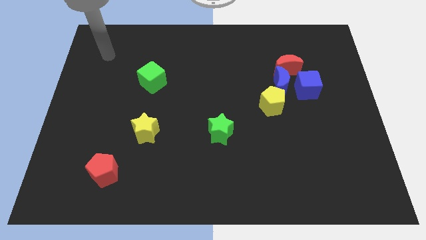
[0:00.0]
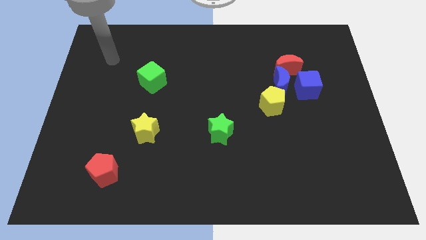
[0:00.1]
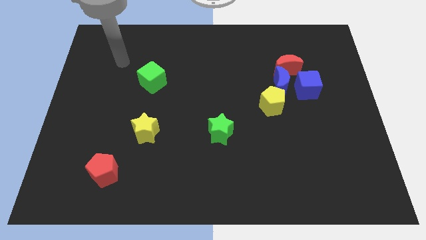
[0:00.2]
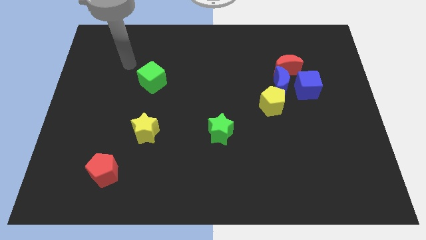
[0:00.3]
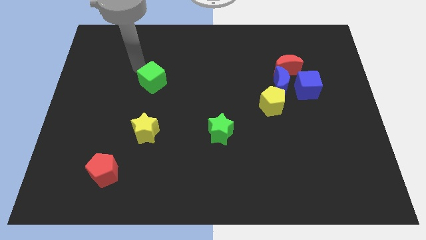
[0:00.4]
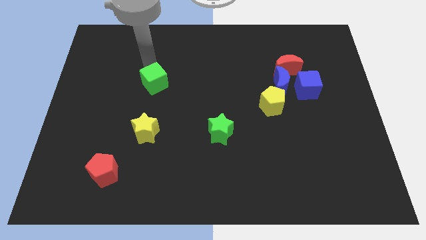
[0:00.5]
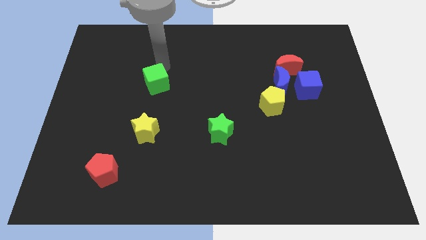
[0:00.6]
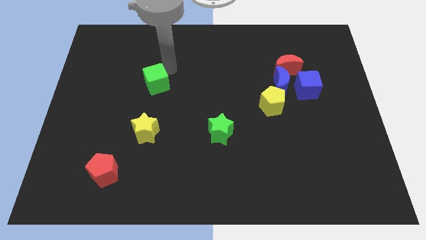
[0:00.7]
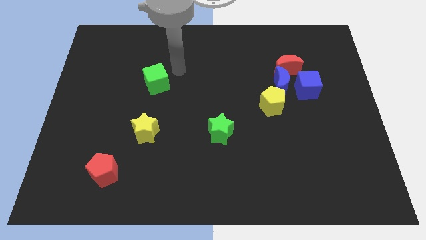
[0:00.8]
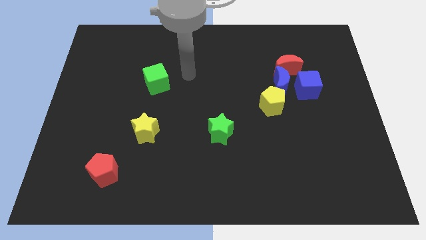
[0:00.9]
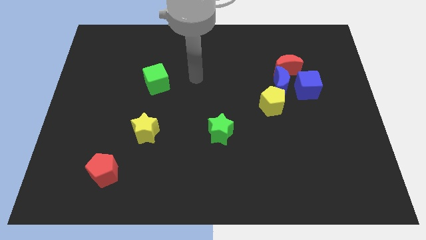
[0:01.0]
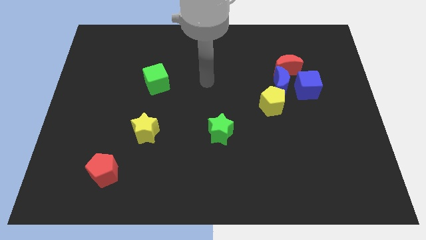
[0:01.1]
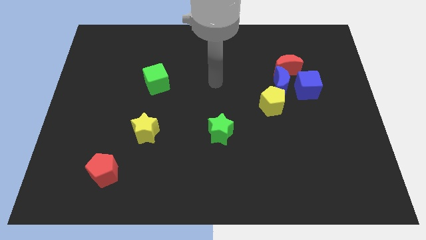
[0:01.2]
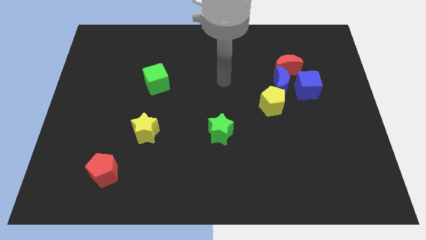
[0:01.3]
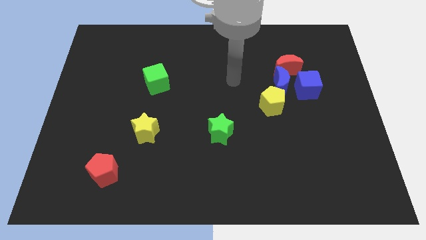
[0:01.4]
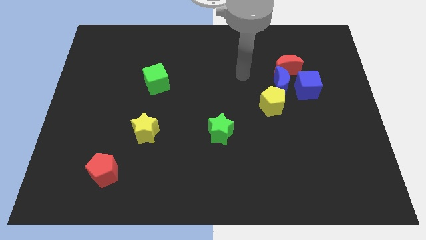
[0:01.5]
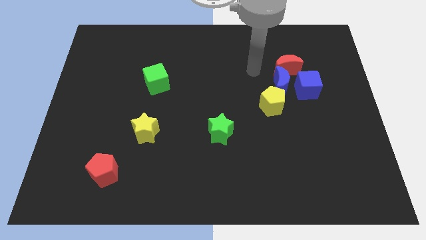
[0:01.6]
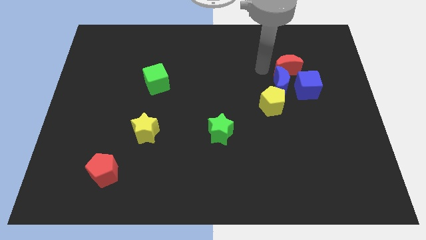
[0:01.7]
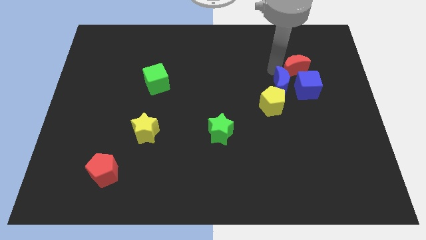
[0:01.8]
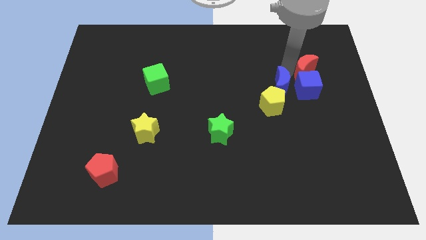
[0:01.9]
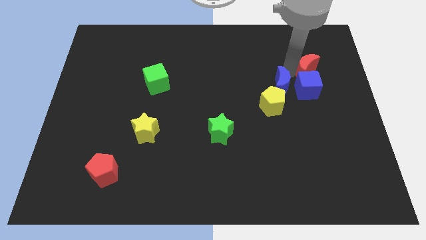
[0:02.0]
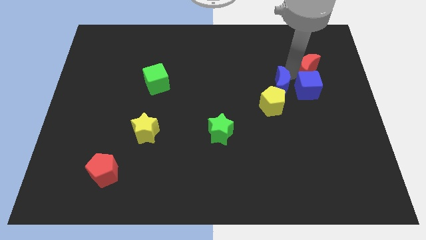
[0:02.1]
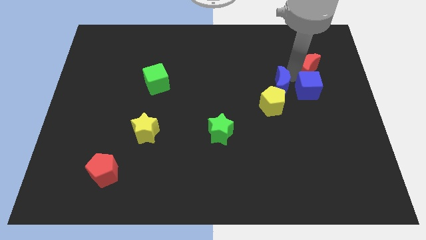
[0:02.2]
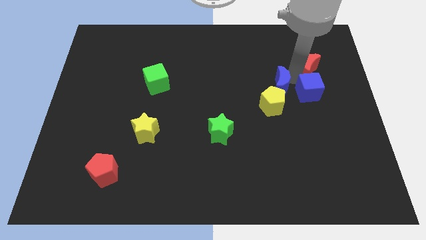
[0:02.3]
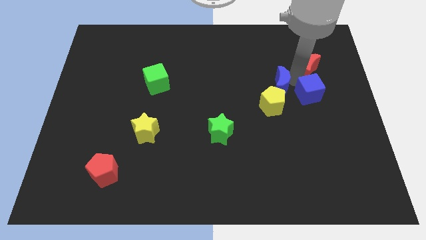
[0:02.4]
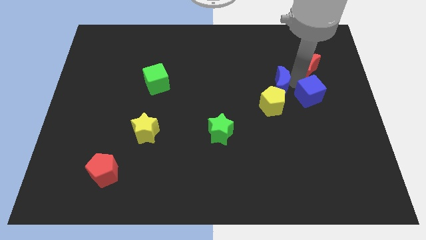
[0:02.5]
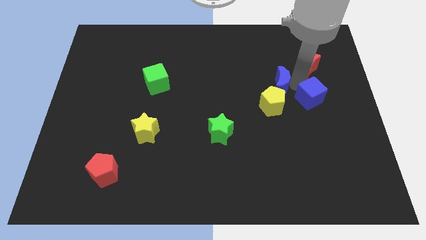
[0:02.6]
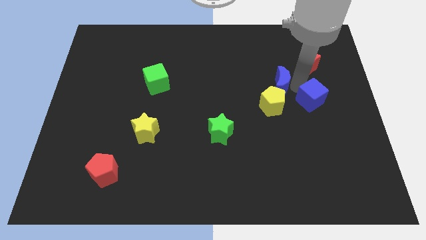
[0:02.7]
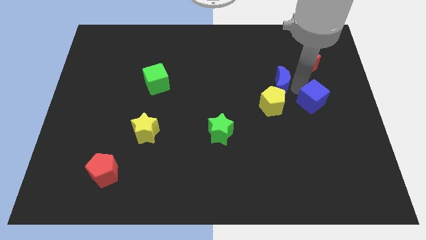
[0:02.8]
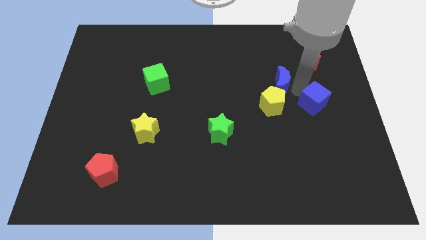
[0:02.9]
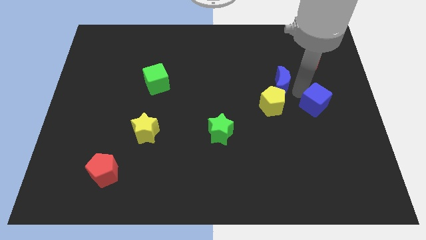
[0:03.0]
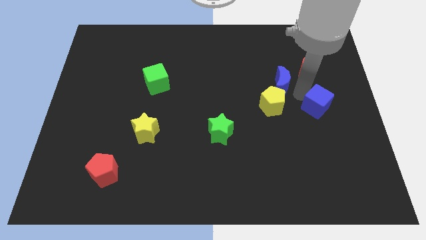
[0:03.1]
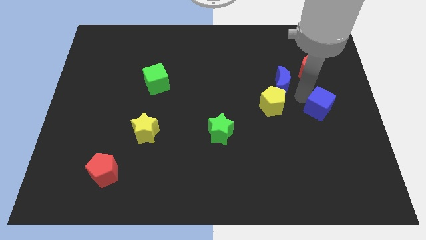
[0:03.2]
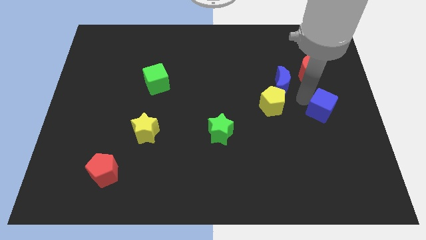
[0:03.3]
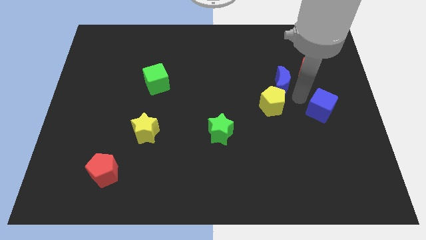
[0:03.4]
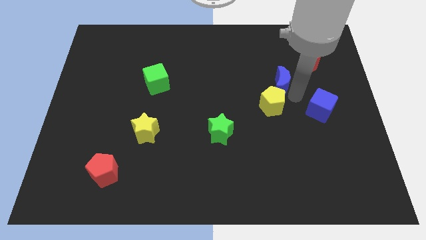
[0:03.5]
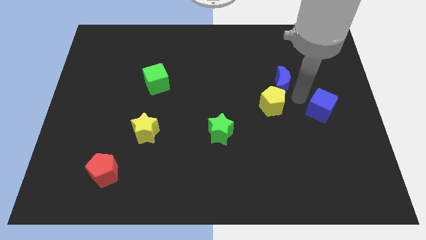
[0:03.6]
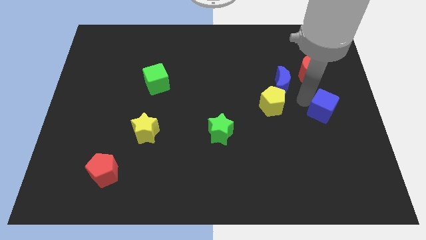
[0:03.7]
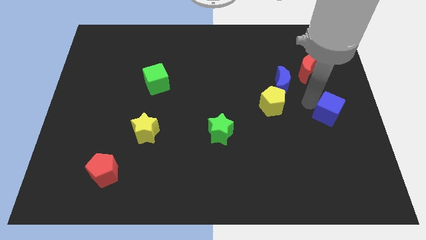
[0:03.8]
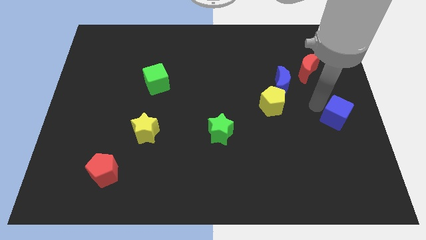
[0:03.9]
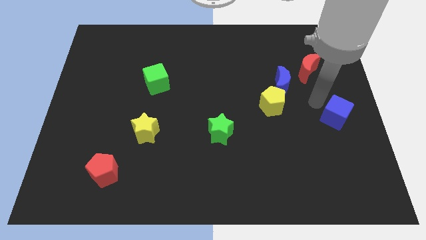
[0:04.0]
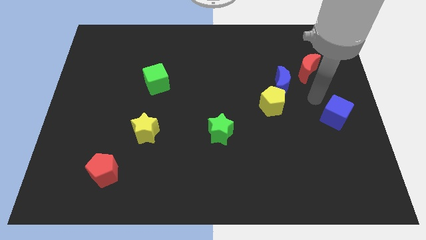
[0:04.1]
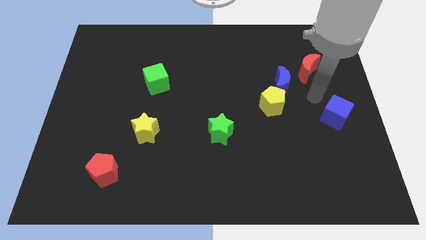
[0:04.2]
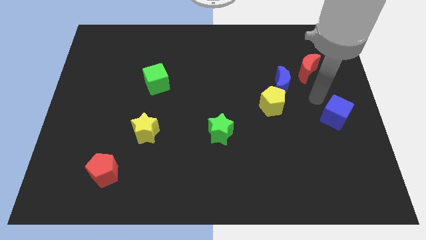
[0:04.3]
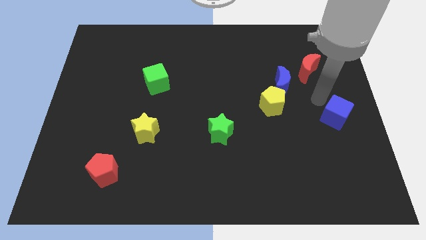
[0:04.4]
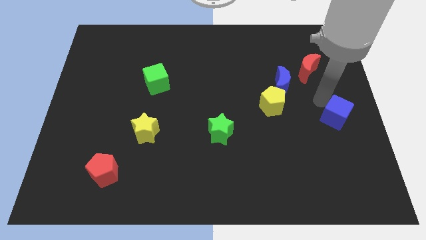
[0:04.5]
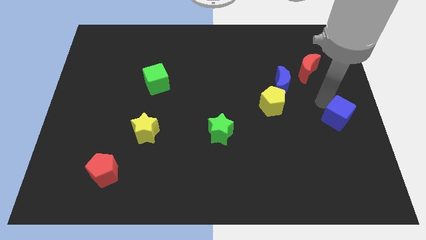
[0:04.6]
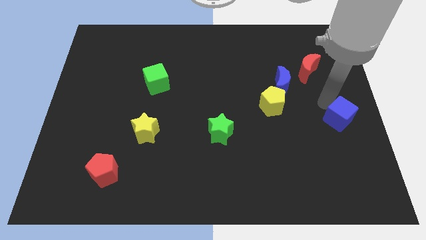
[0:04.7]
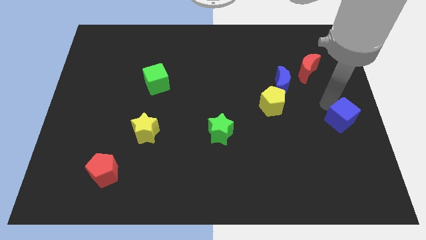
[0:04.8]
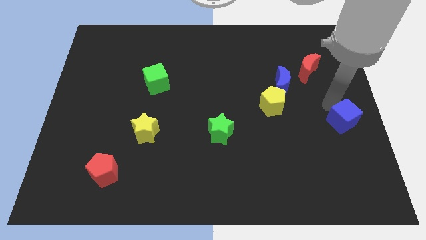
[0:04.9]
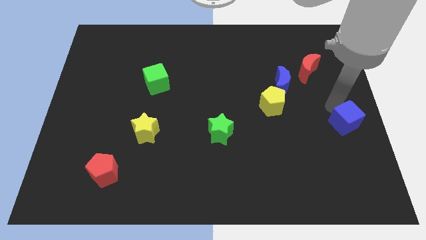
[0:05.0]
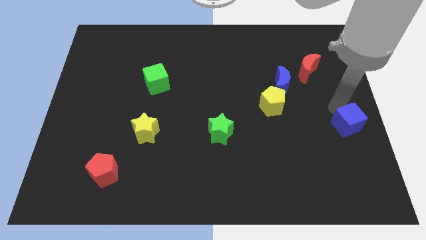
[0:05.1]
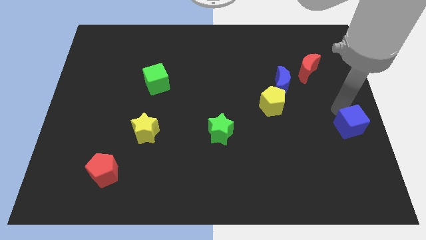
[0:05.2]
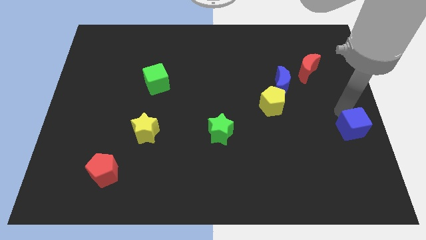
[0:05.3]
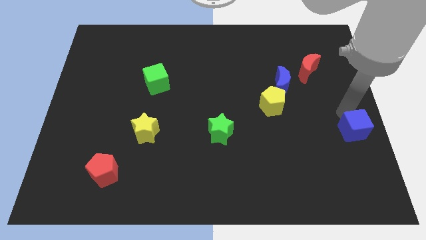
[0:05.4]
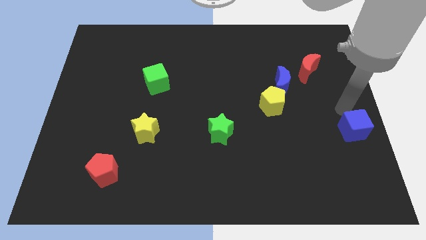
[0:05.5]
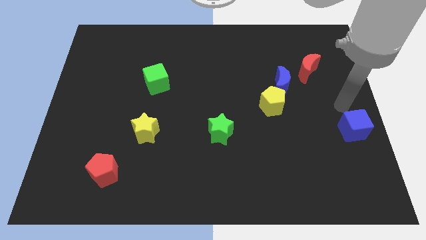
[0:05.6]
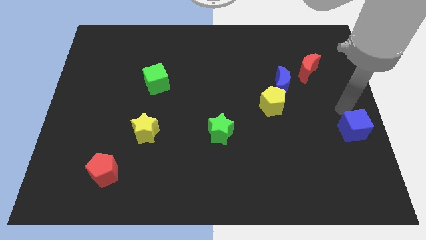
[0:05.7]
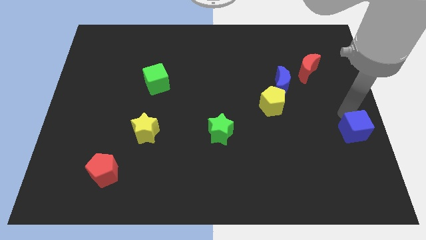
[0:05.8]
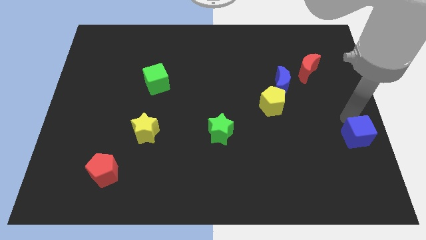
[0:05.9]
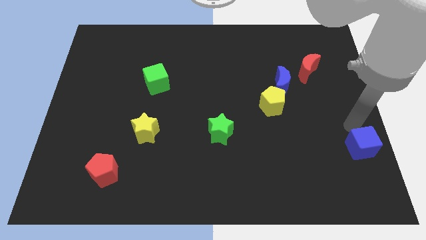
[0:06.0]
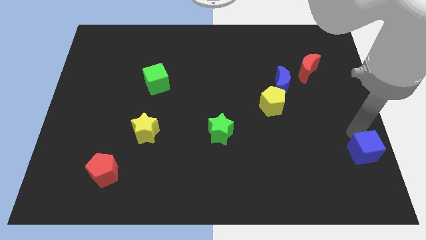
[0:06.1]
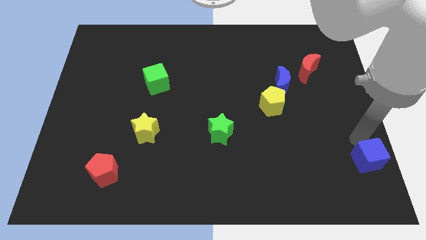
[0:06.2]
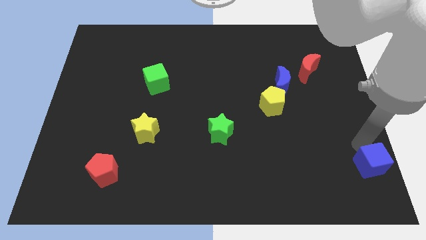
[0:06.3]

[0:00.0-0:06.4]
push the blue cube to the bottom right of the board
